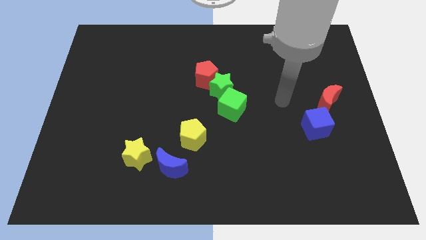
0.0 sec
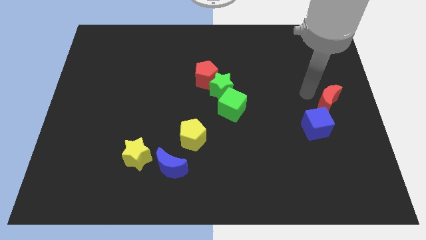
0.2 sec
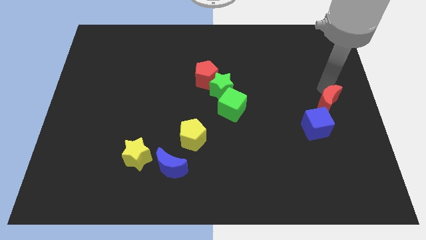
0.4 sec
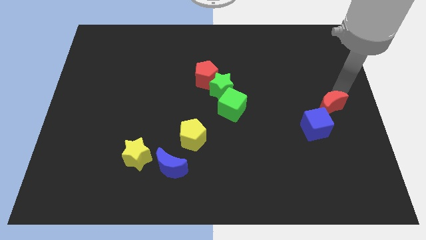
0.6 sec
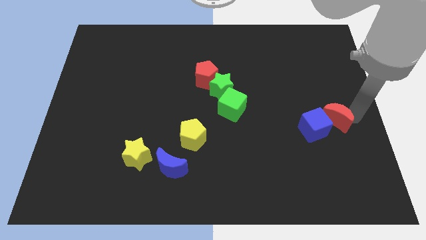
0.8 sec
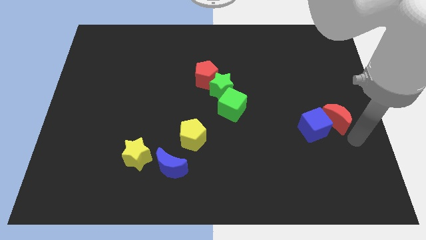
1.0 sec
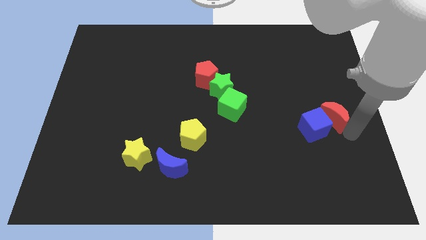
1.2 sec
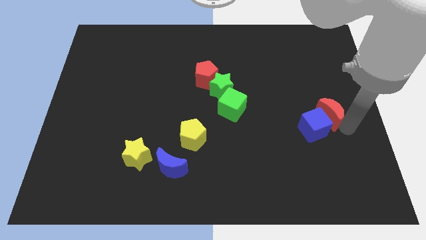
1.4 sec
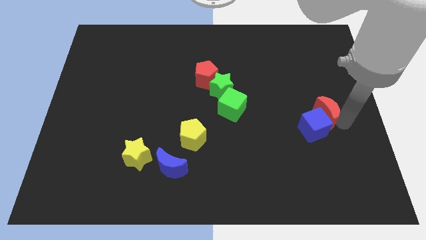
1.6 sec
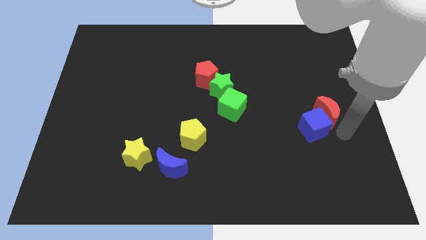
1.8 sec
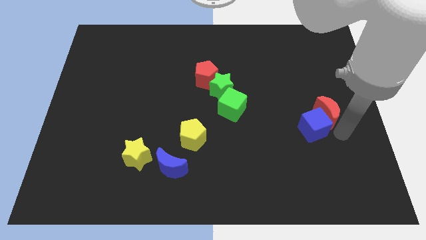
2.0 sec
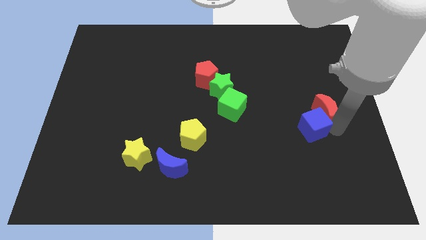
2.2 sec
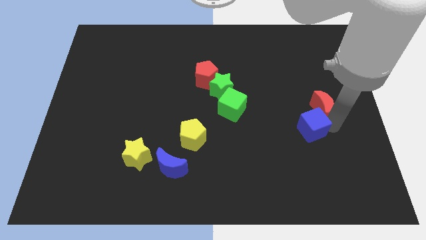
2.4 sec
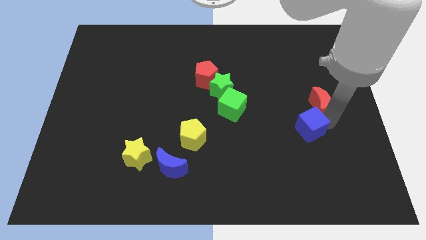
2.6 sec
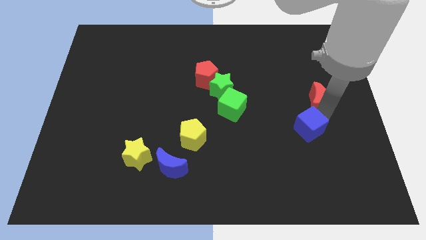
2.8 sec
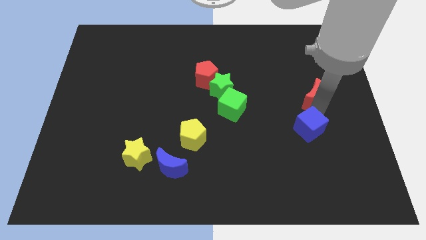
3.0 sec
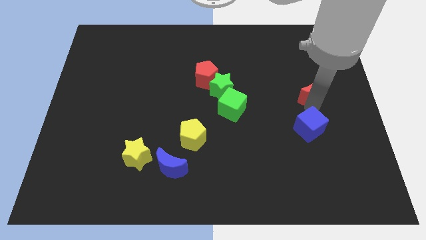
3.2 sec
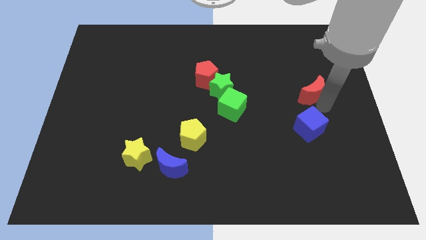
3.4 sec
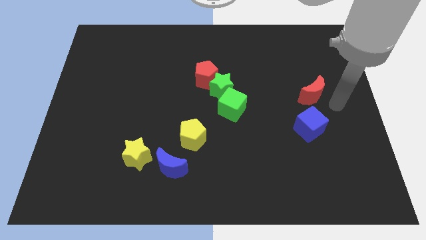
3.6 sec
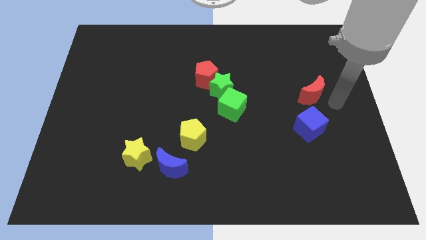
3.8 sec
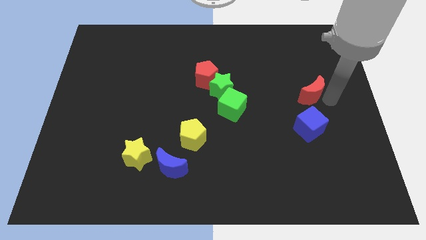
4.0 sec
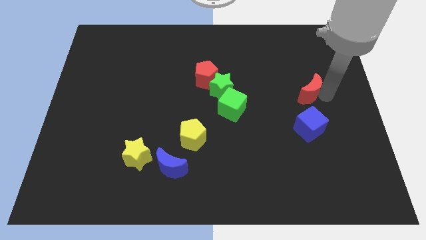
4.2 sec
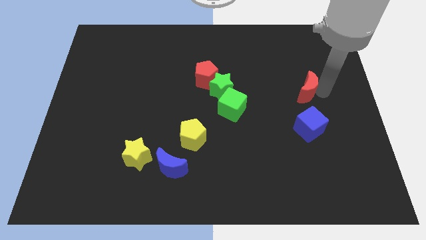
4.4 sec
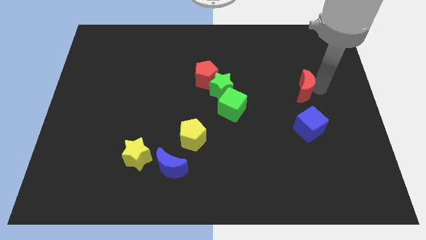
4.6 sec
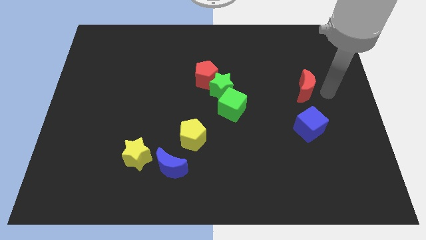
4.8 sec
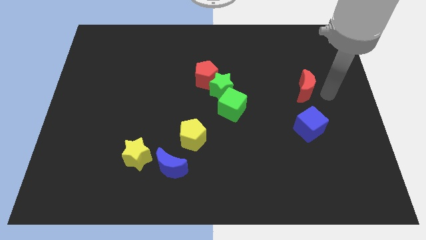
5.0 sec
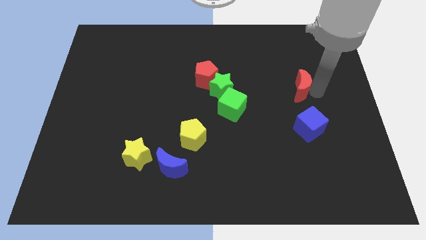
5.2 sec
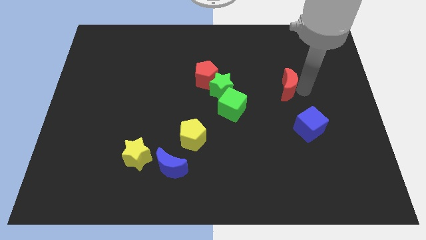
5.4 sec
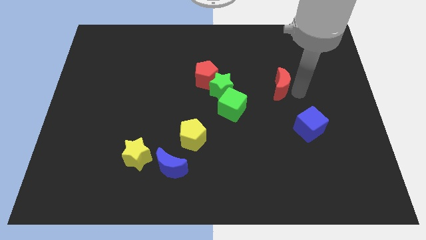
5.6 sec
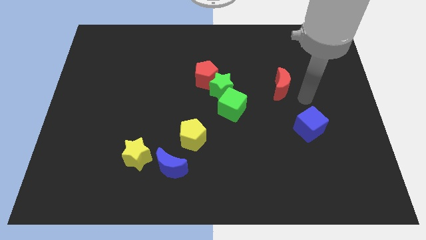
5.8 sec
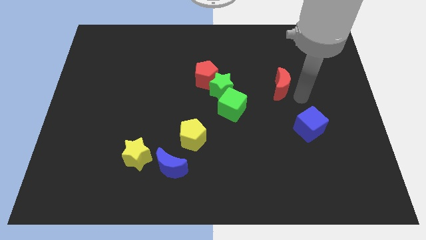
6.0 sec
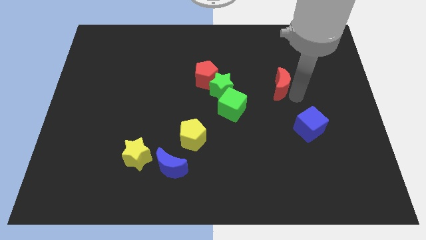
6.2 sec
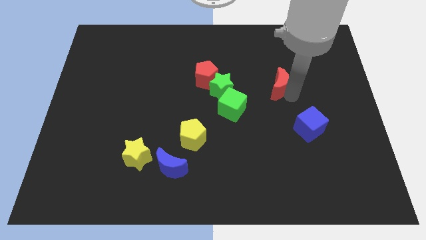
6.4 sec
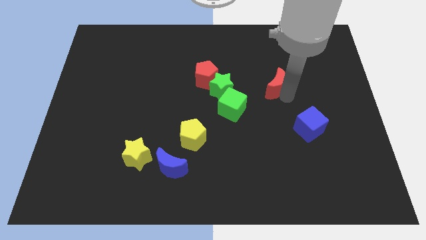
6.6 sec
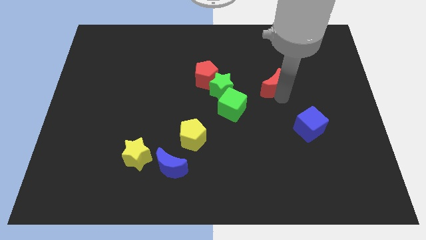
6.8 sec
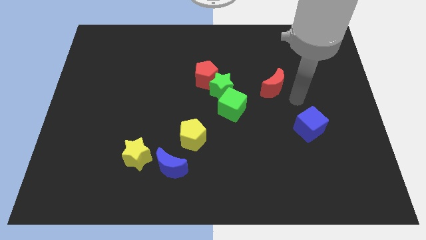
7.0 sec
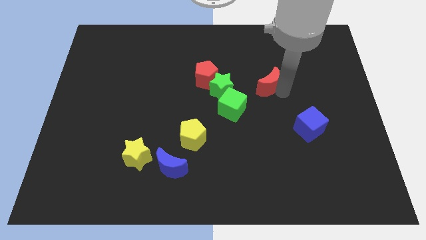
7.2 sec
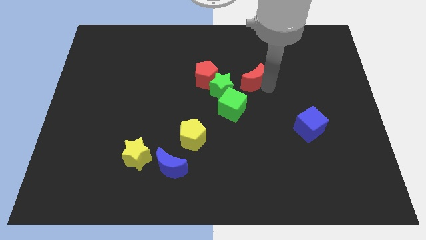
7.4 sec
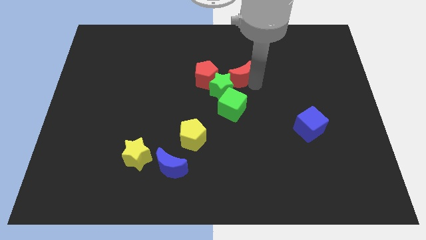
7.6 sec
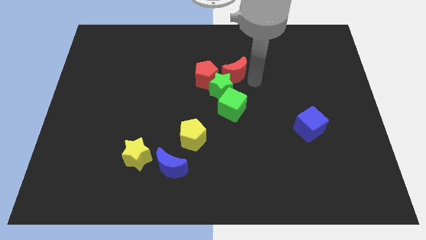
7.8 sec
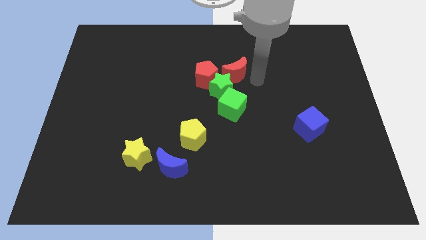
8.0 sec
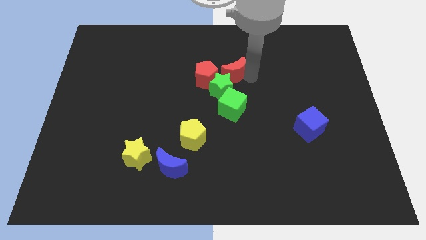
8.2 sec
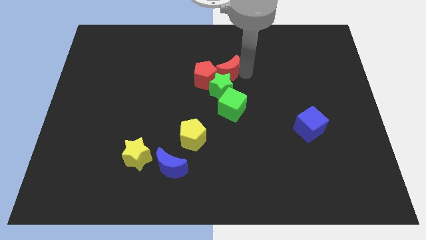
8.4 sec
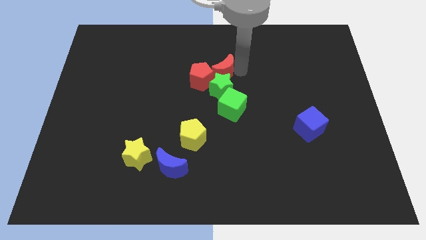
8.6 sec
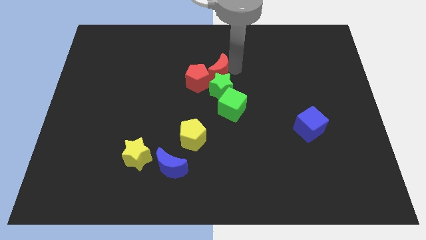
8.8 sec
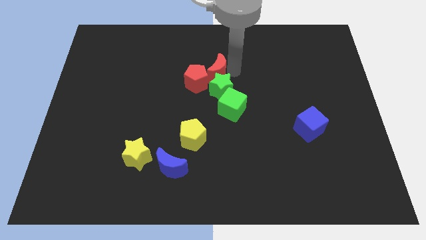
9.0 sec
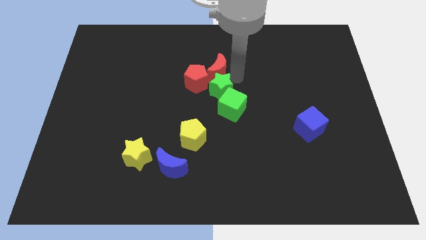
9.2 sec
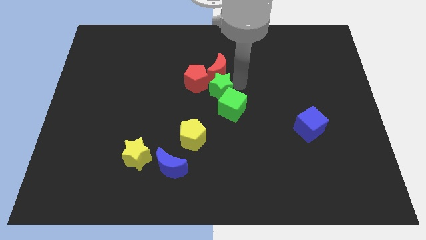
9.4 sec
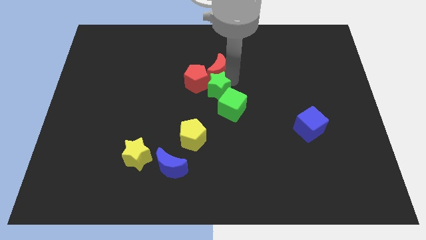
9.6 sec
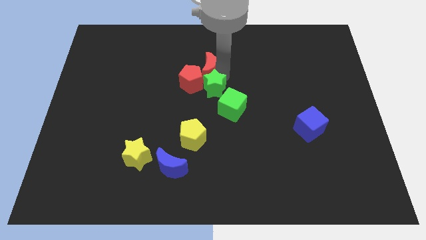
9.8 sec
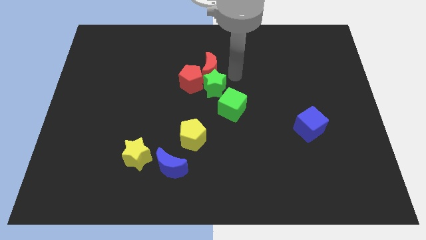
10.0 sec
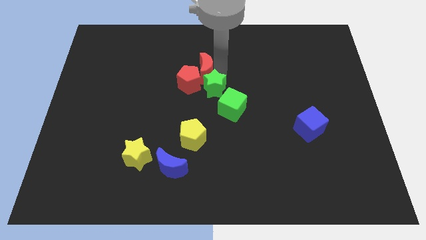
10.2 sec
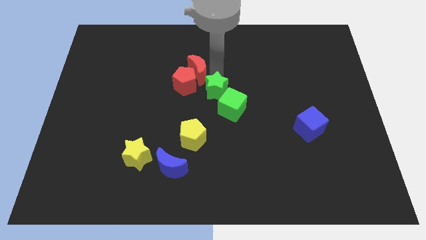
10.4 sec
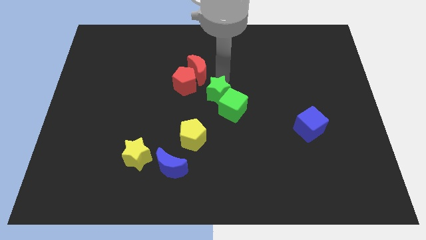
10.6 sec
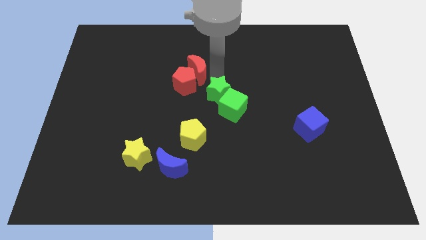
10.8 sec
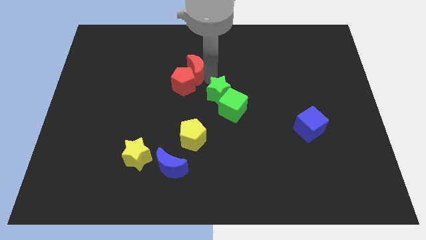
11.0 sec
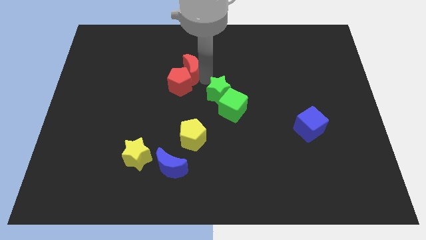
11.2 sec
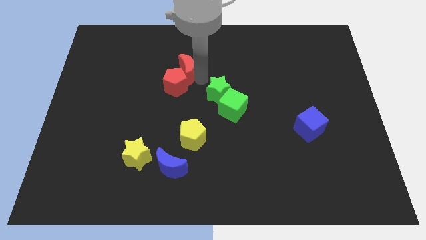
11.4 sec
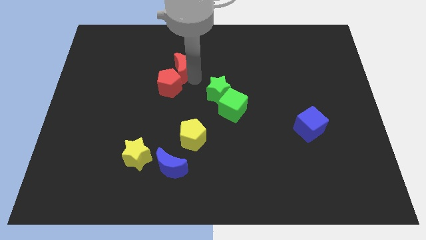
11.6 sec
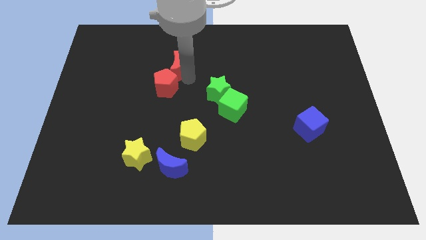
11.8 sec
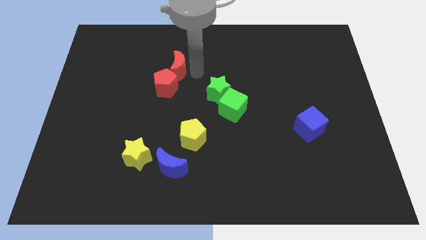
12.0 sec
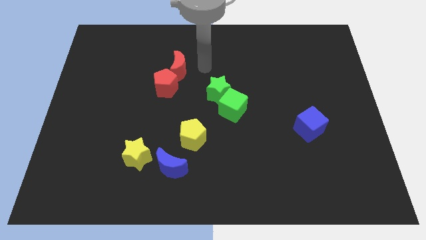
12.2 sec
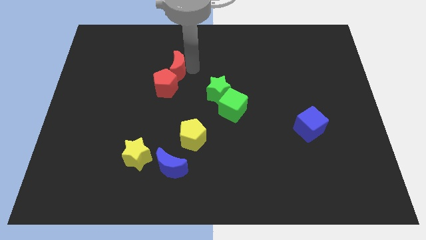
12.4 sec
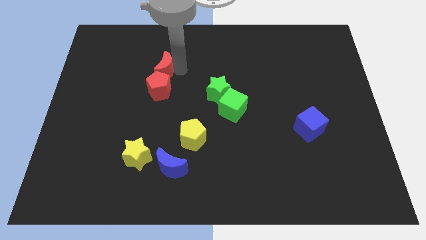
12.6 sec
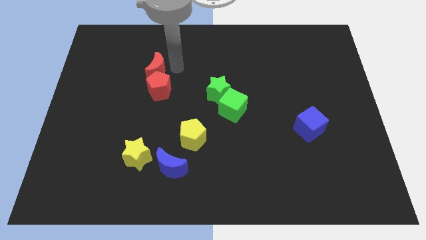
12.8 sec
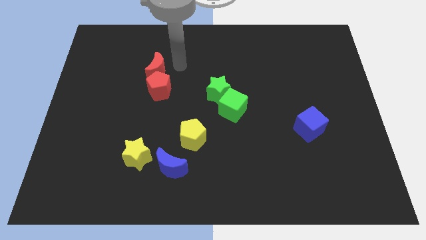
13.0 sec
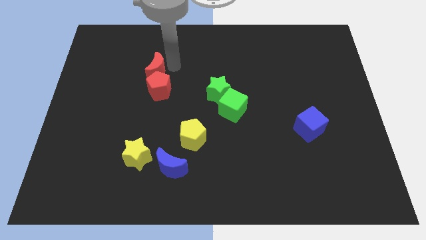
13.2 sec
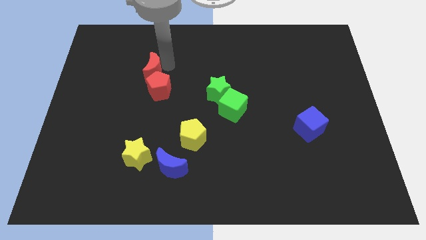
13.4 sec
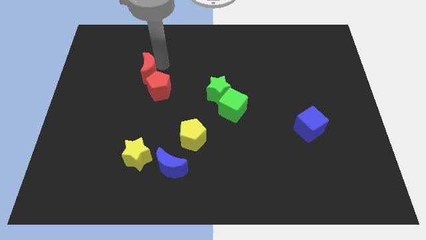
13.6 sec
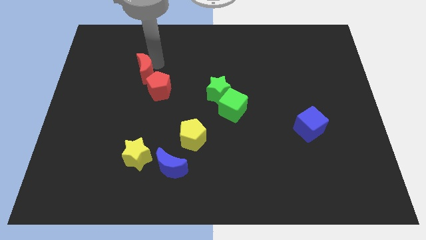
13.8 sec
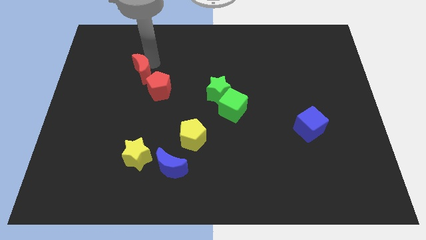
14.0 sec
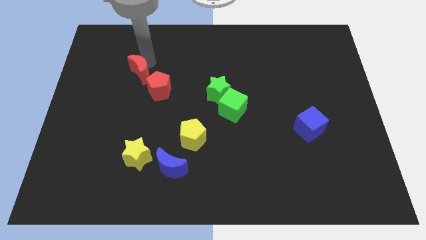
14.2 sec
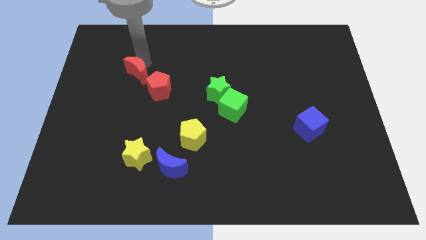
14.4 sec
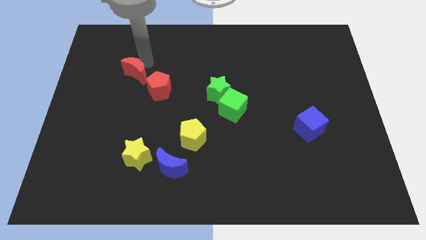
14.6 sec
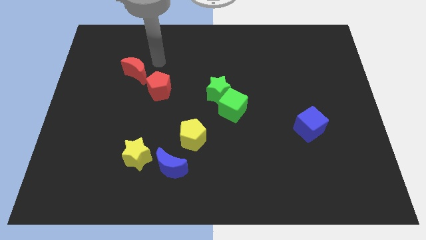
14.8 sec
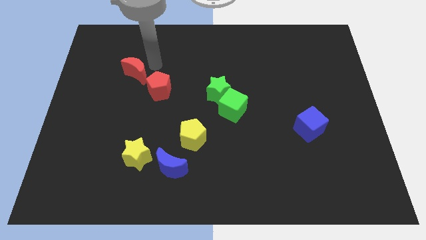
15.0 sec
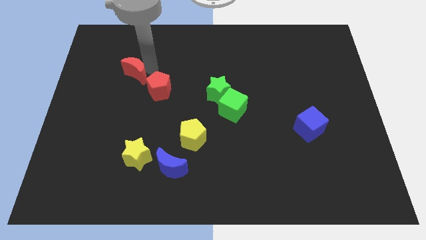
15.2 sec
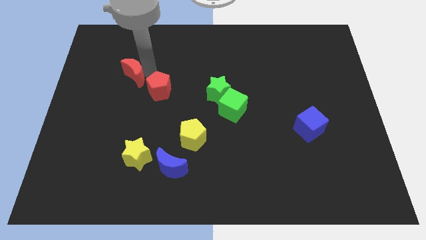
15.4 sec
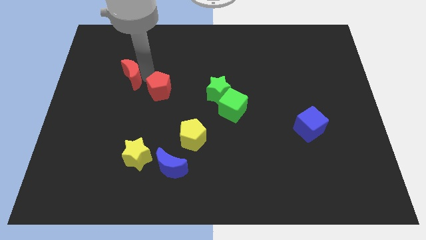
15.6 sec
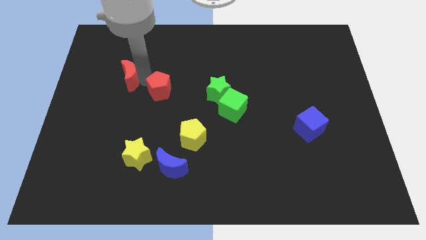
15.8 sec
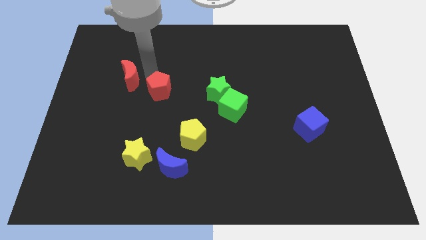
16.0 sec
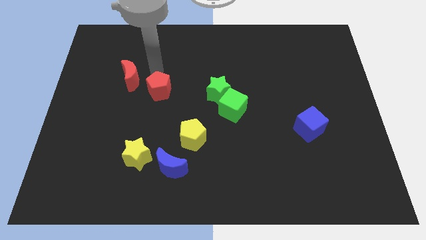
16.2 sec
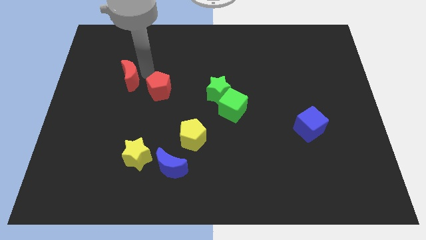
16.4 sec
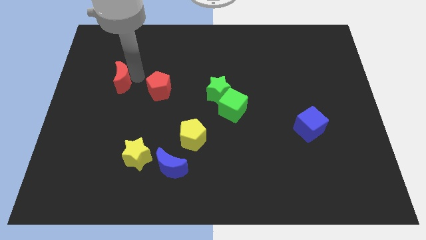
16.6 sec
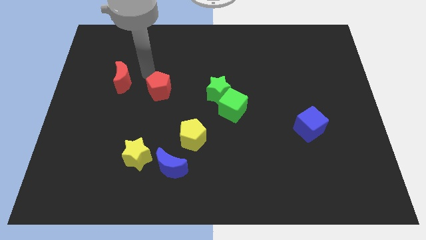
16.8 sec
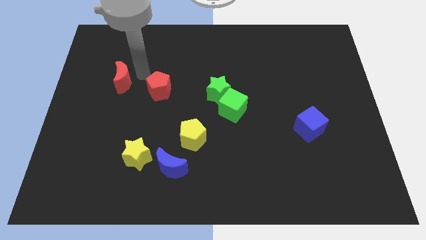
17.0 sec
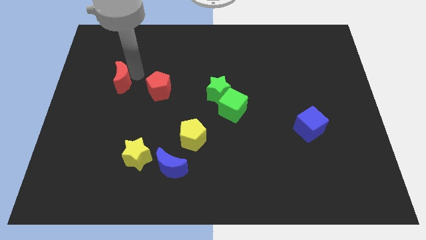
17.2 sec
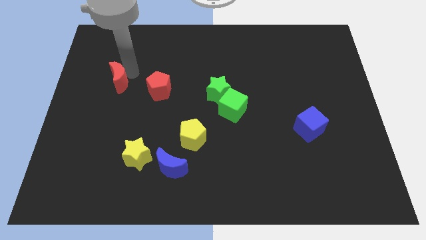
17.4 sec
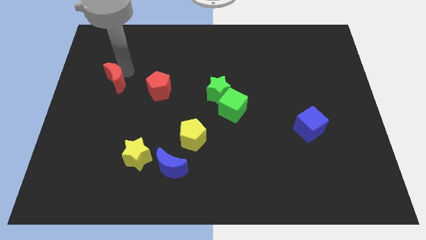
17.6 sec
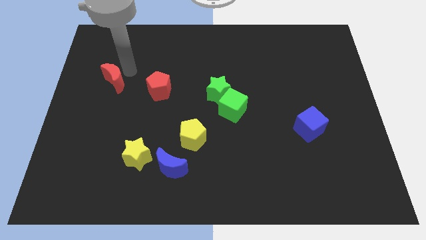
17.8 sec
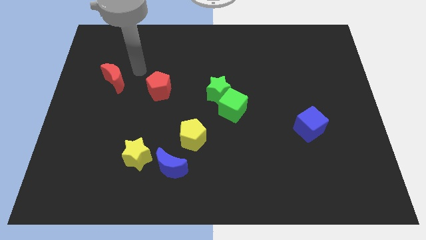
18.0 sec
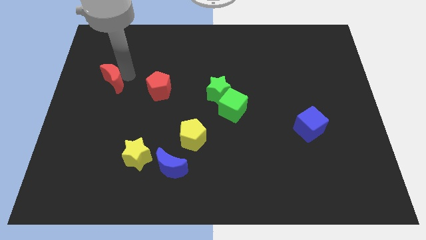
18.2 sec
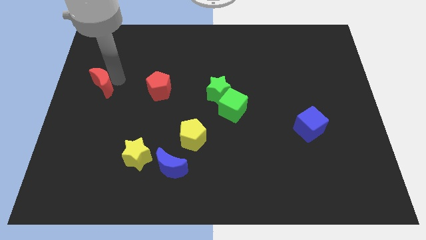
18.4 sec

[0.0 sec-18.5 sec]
put the red moon to the left side
